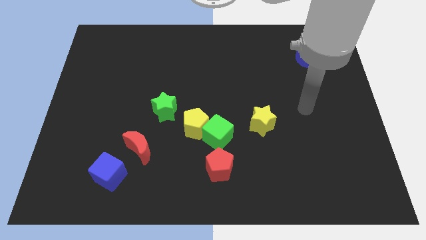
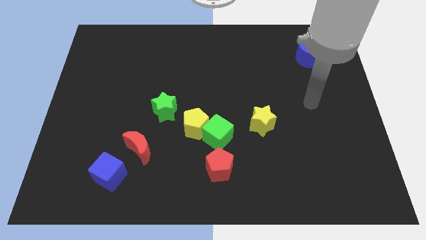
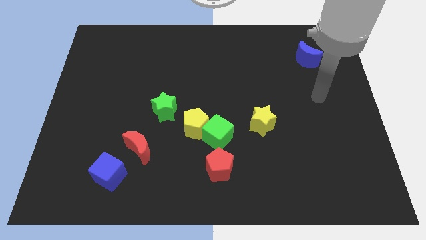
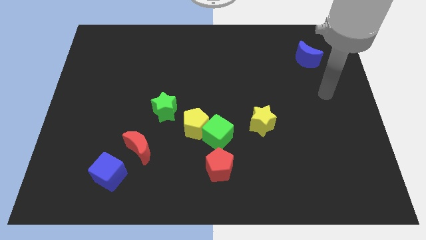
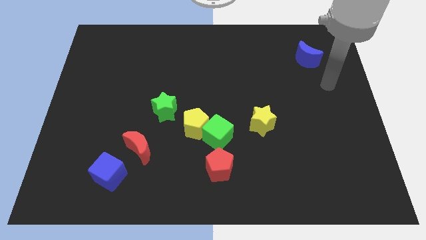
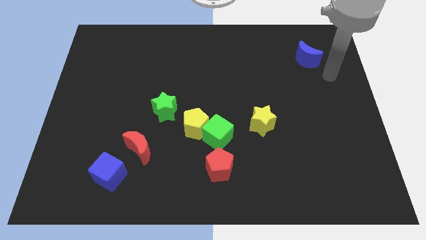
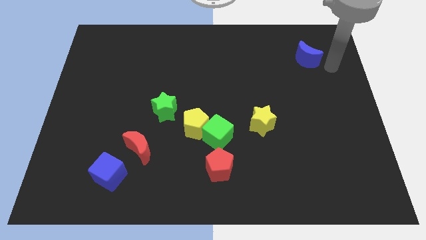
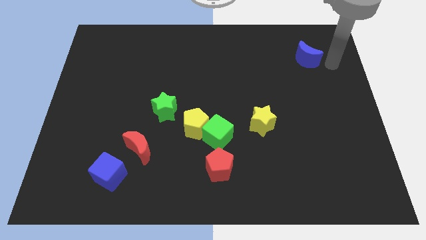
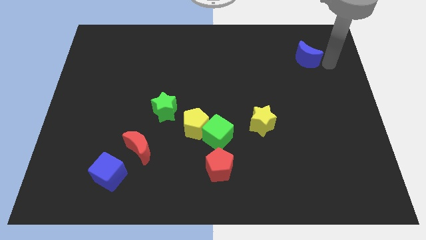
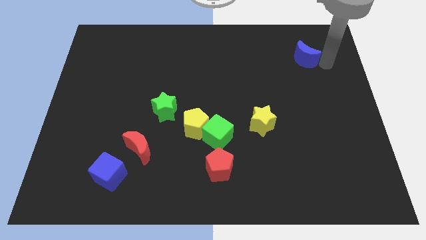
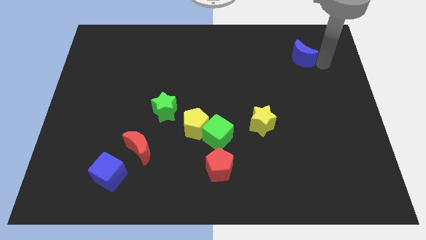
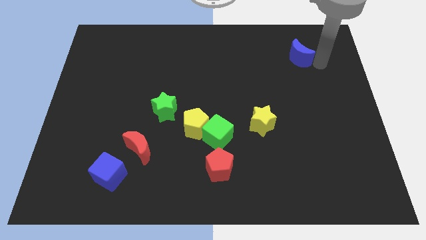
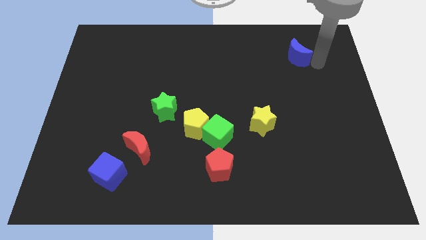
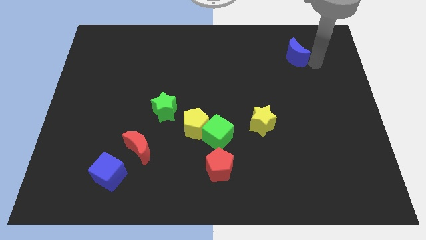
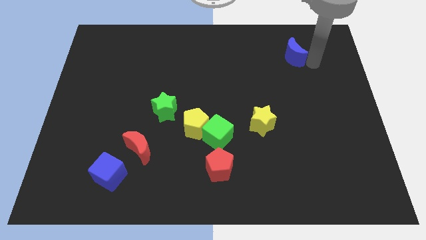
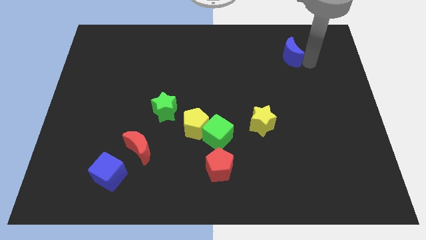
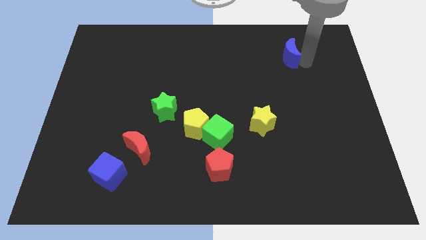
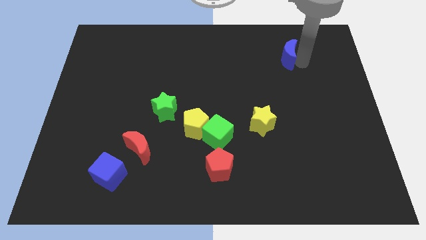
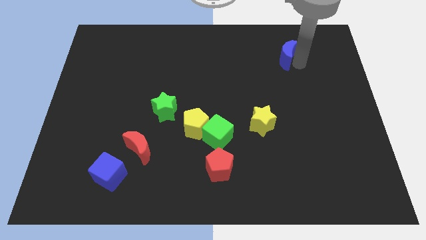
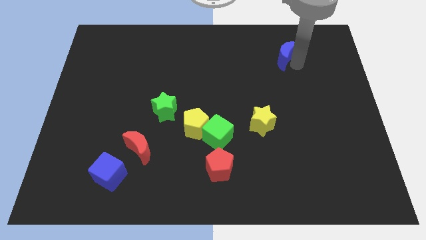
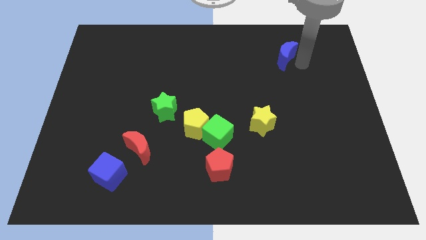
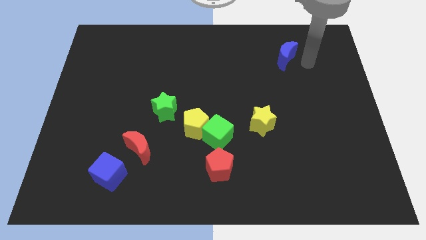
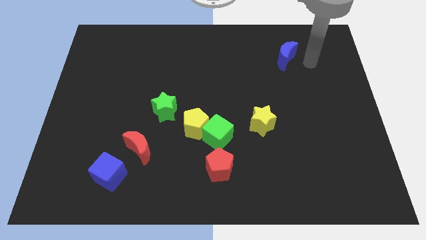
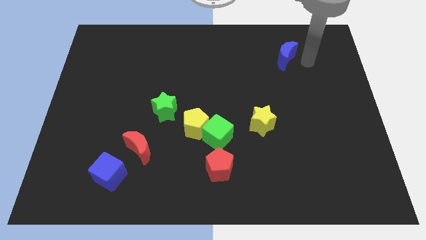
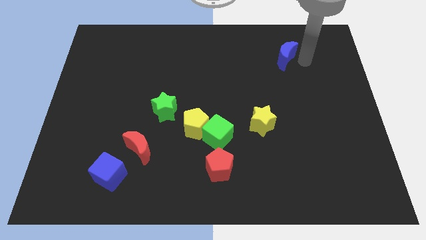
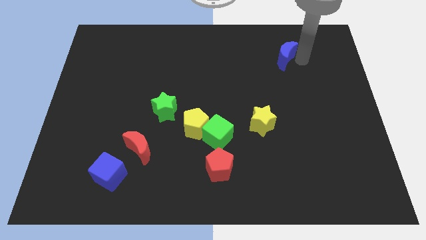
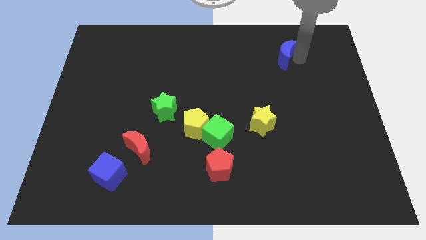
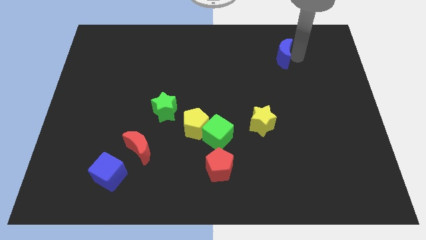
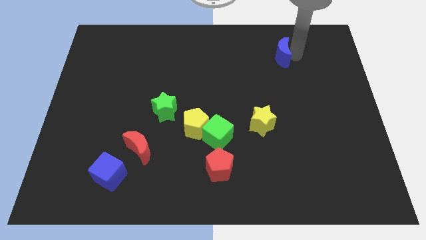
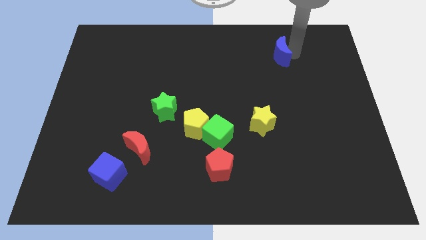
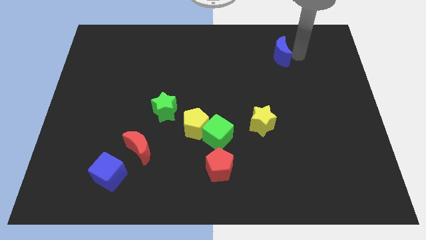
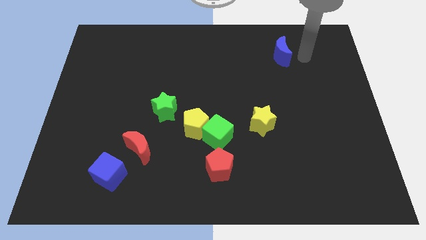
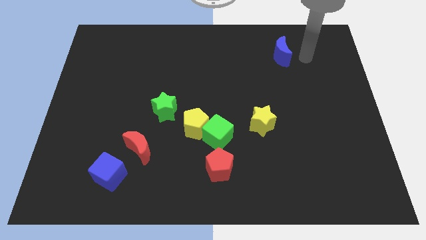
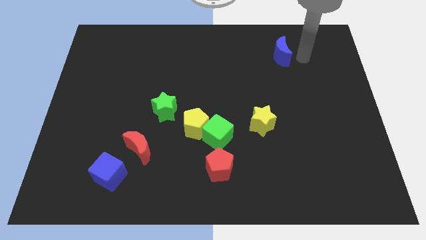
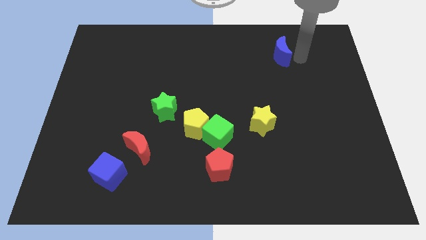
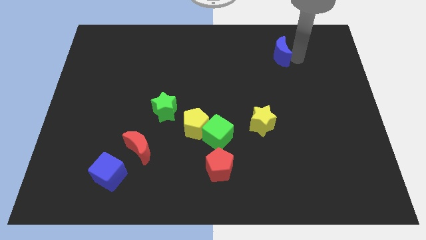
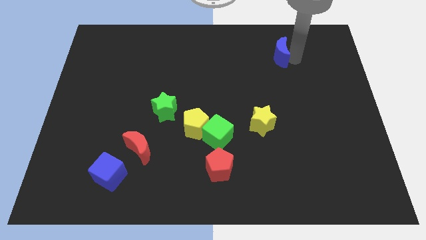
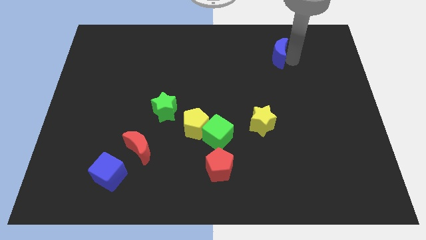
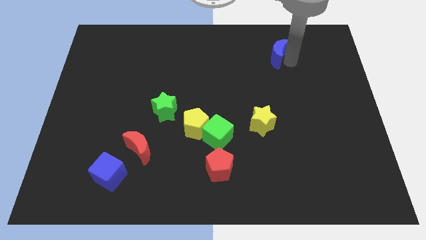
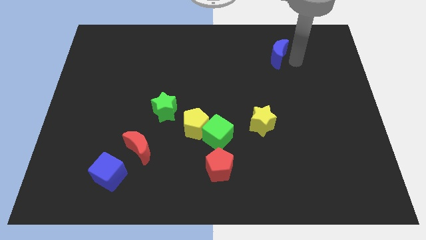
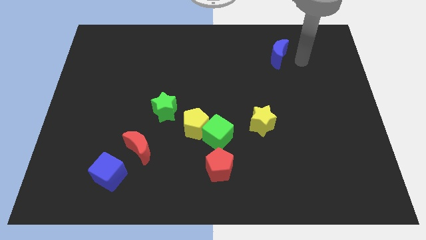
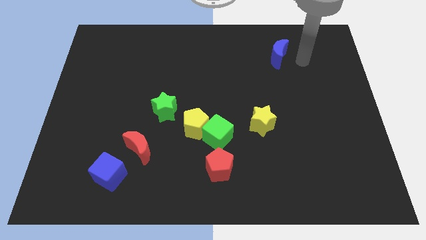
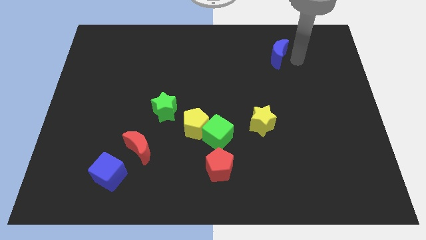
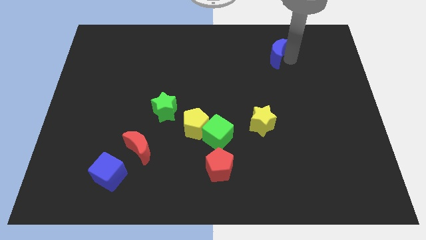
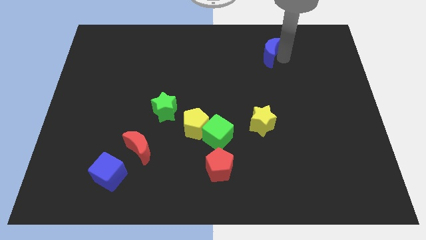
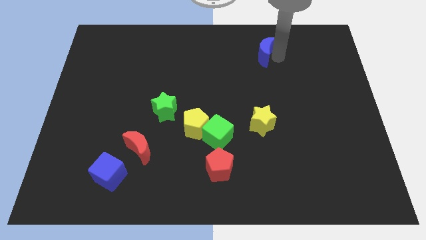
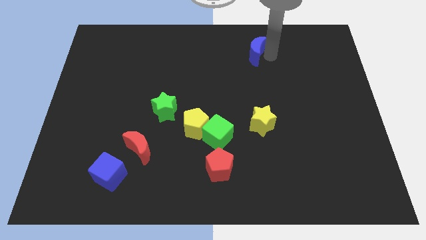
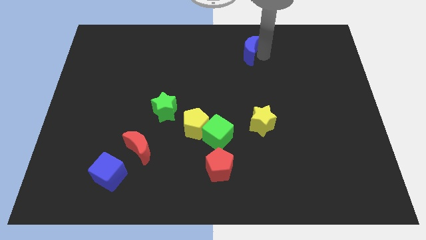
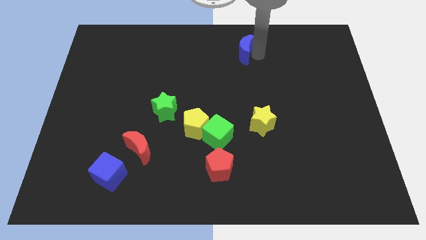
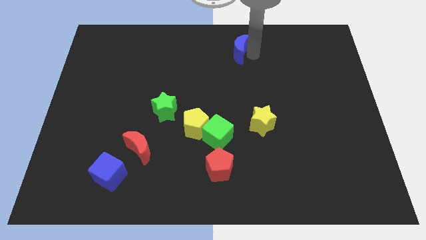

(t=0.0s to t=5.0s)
slide the blue moon to the top side

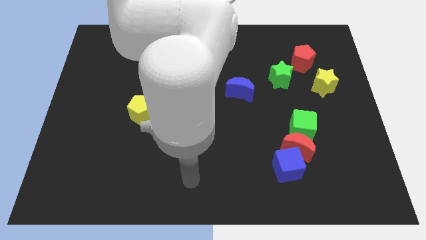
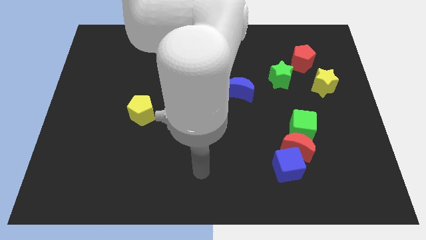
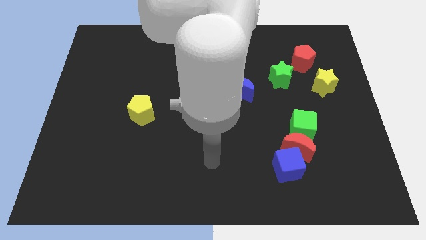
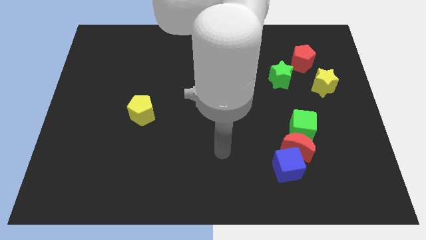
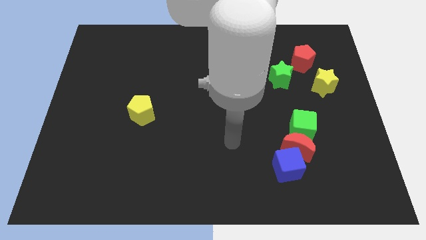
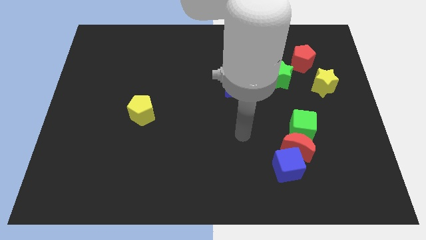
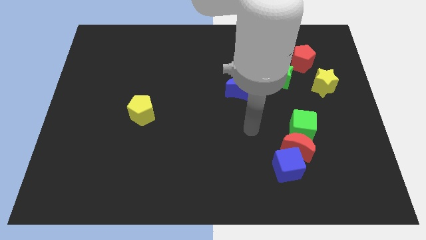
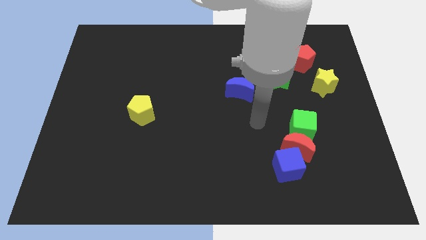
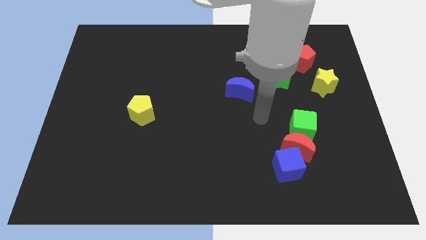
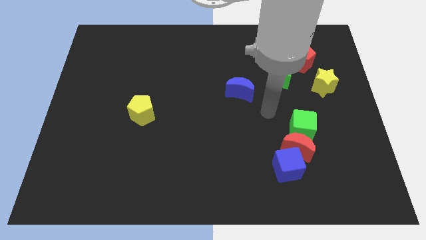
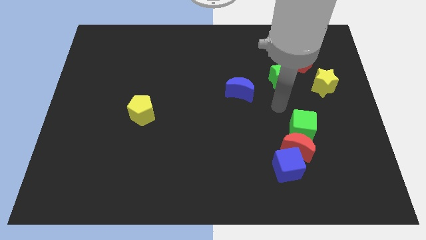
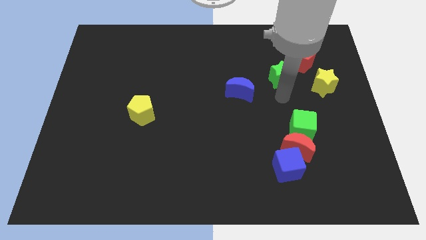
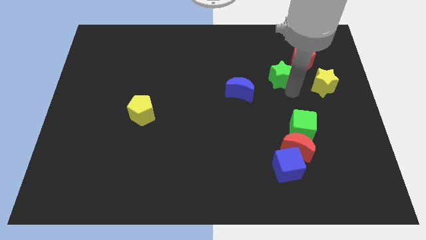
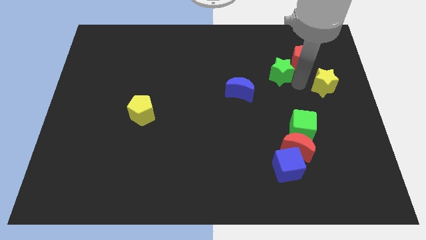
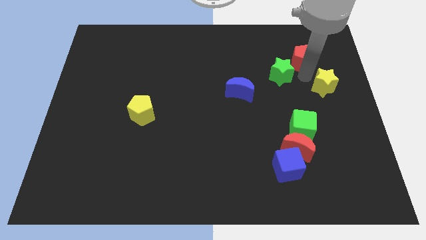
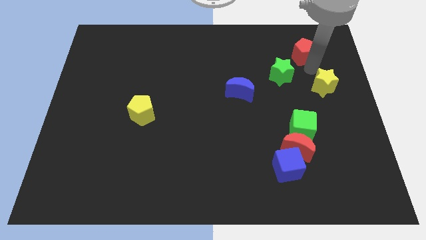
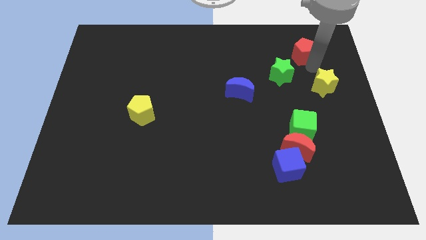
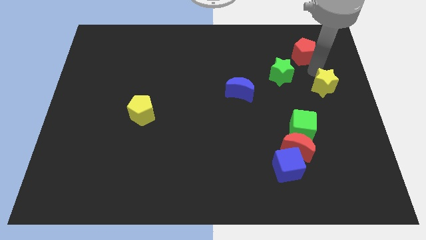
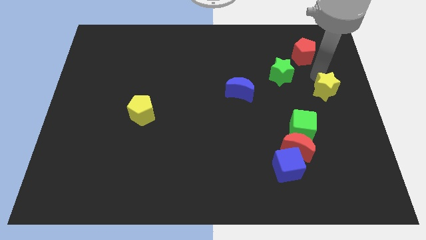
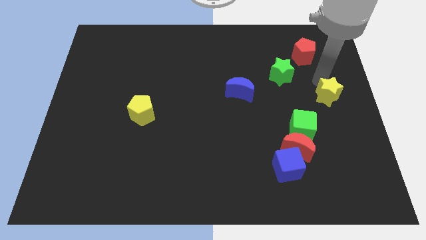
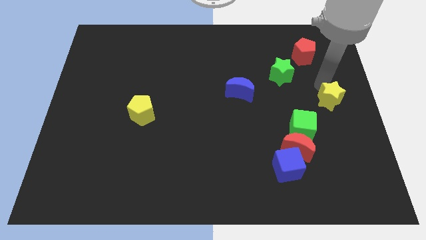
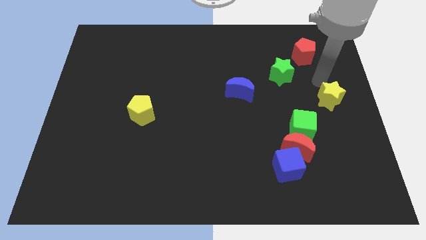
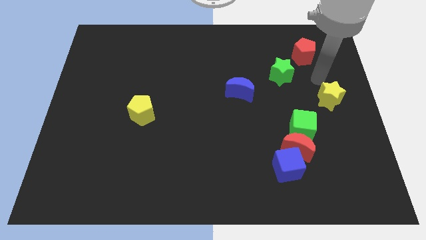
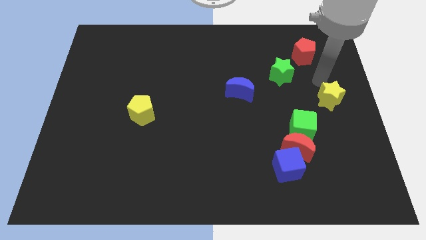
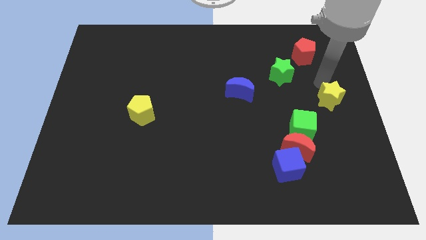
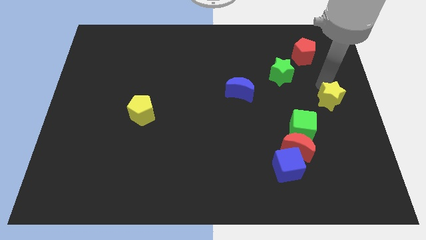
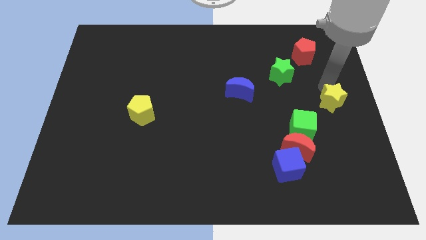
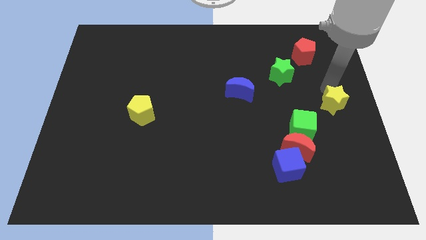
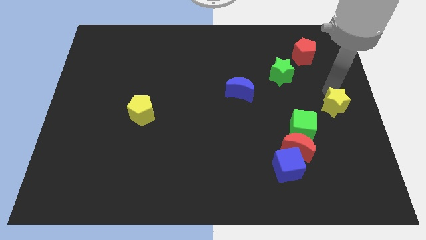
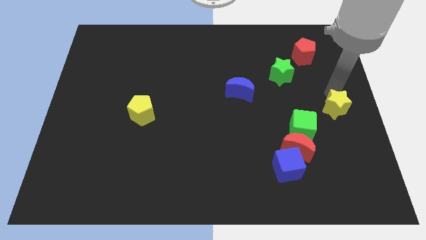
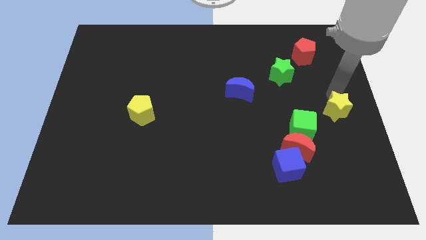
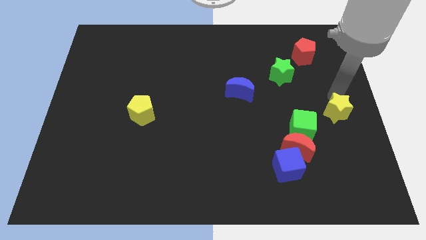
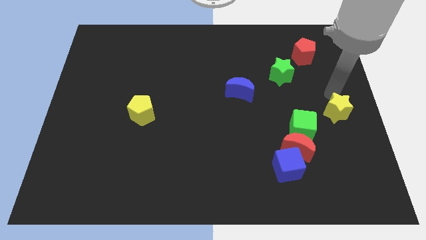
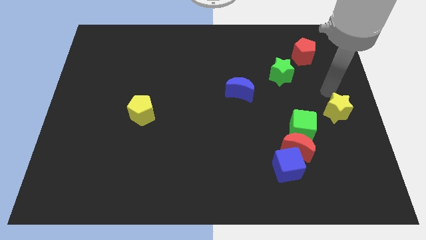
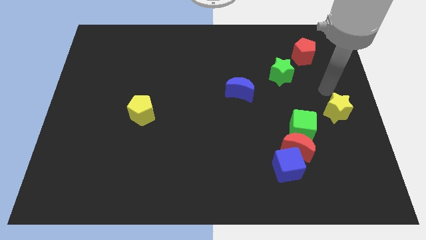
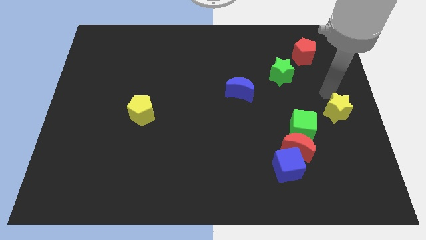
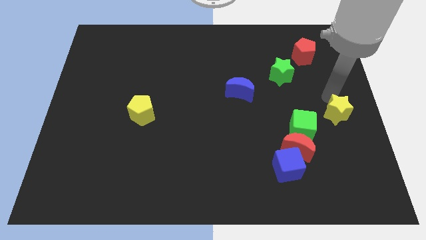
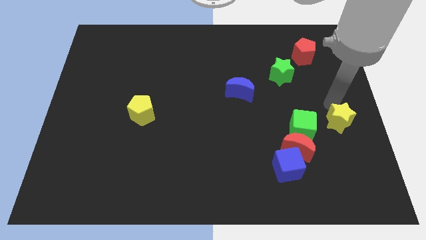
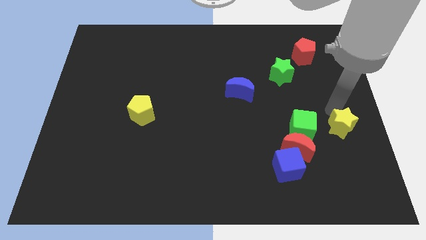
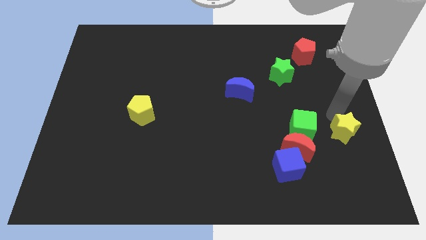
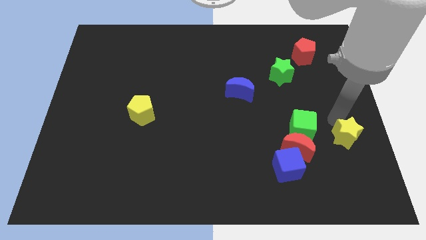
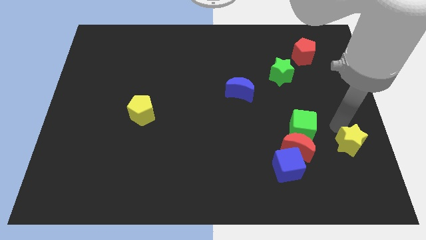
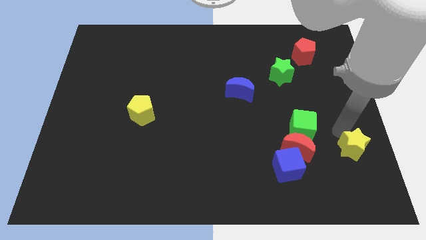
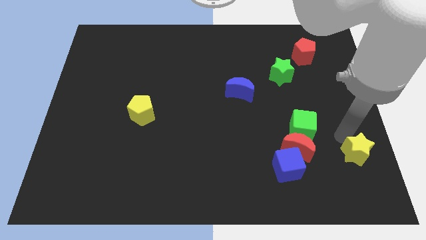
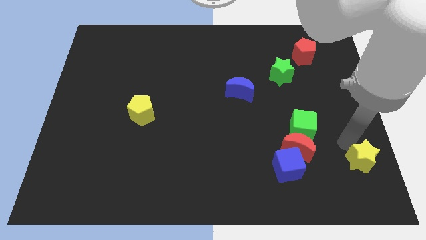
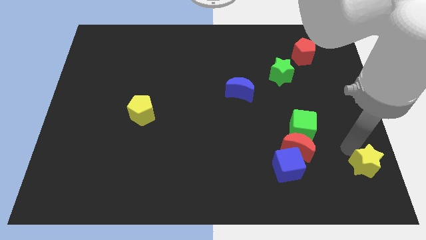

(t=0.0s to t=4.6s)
put the yellow star to the bottom right corner
